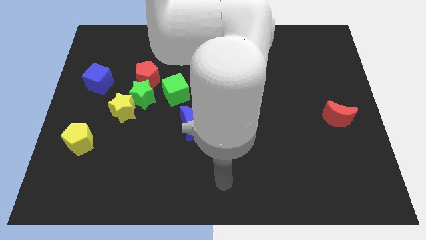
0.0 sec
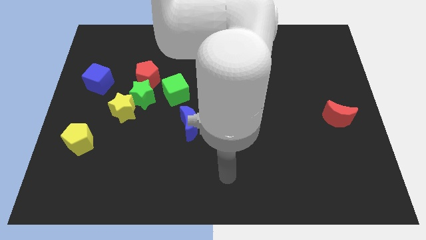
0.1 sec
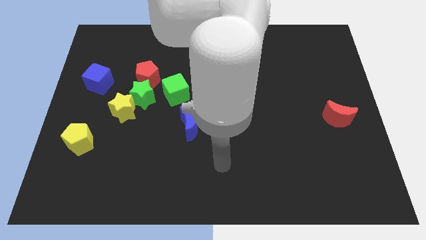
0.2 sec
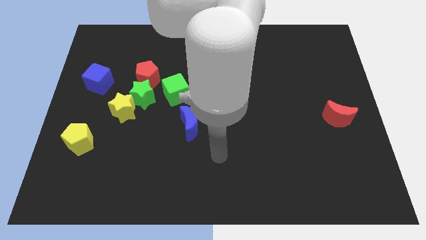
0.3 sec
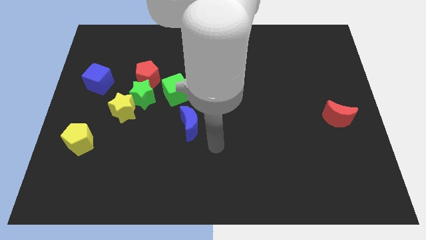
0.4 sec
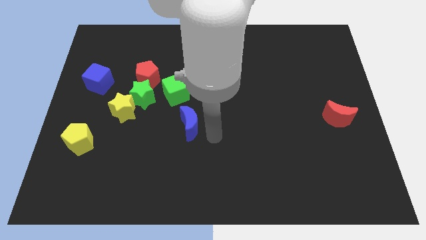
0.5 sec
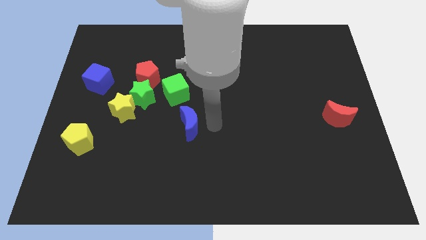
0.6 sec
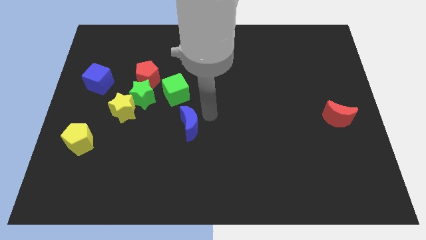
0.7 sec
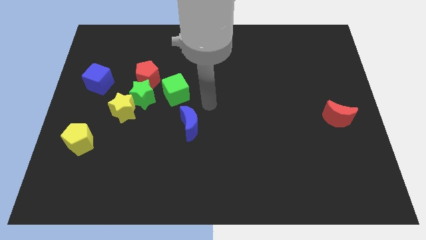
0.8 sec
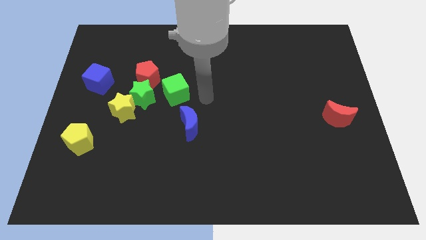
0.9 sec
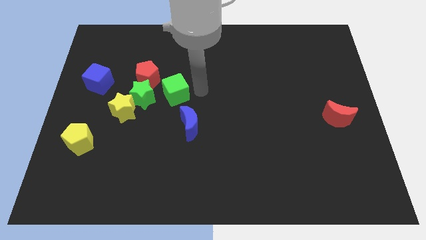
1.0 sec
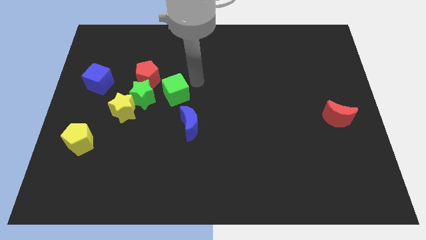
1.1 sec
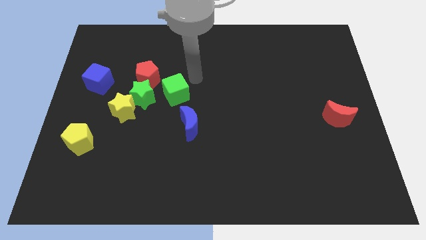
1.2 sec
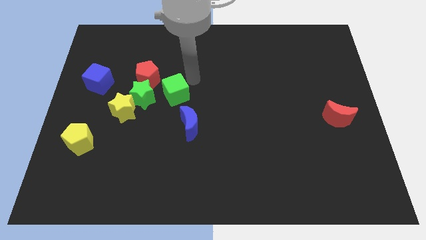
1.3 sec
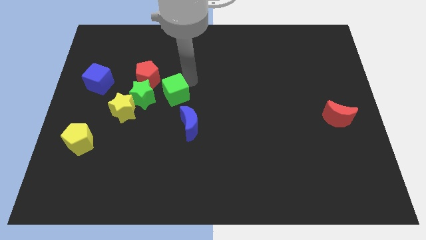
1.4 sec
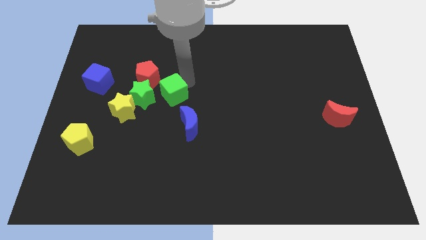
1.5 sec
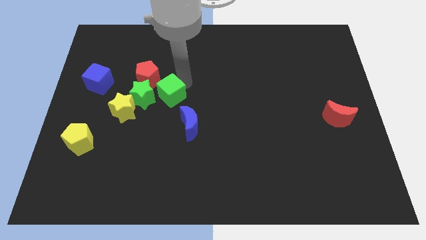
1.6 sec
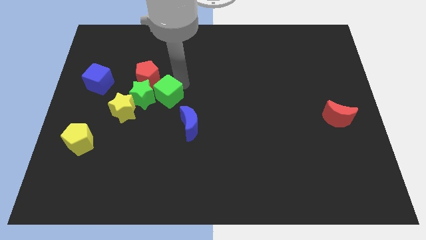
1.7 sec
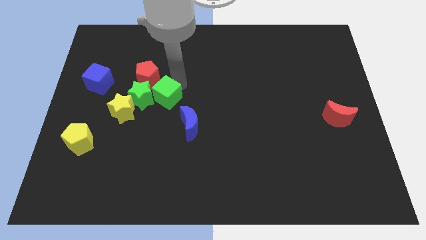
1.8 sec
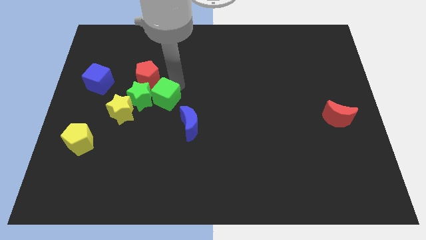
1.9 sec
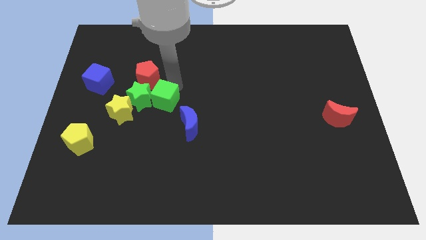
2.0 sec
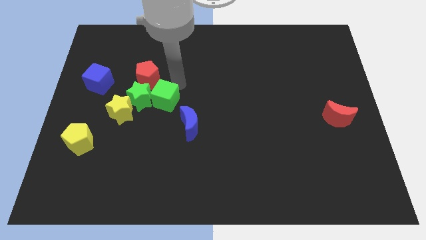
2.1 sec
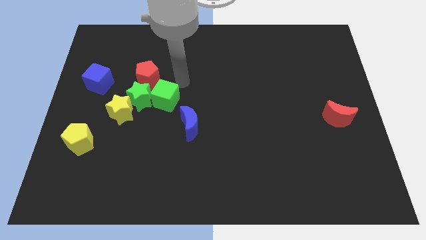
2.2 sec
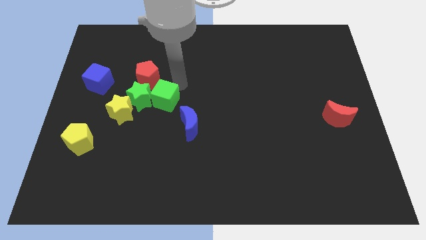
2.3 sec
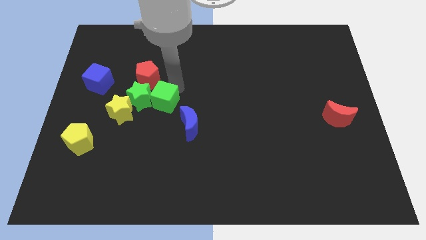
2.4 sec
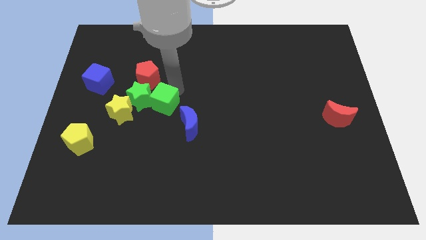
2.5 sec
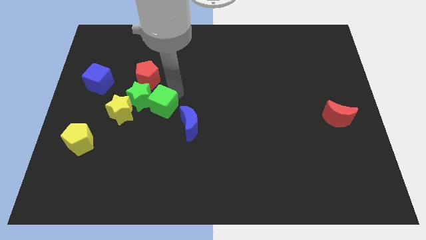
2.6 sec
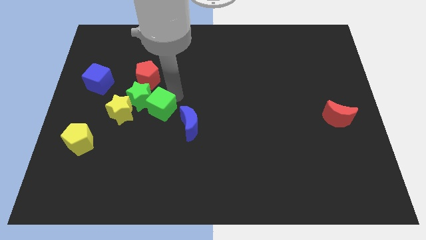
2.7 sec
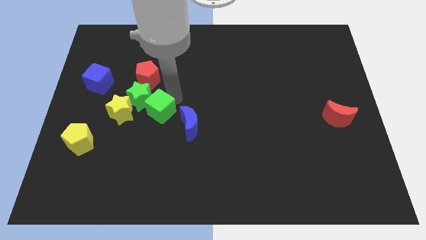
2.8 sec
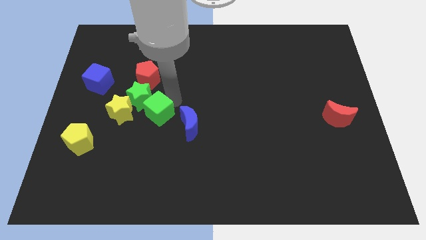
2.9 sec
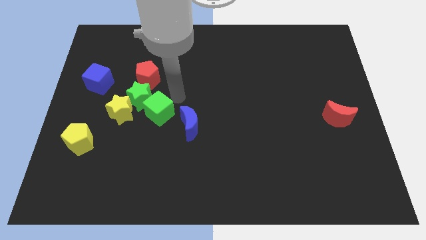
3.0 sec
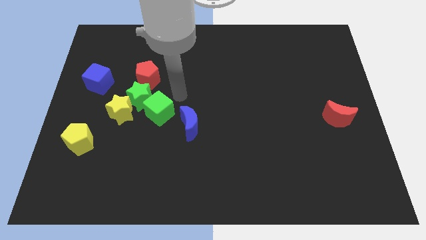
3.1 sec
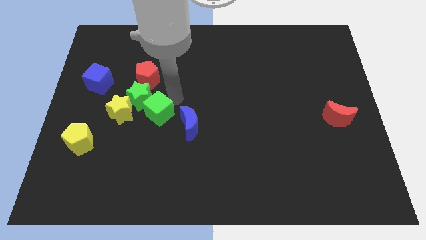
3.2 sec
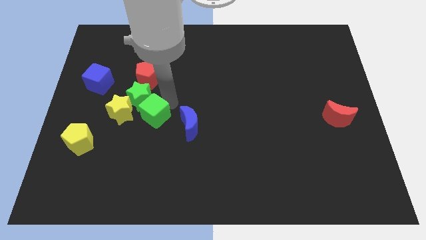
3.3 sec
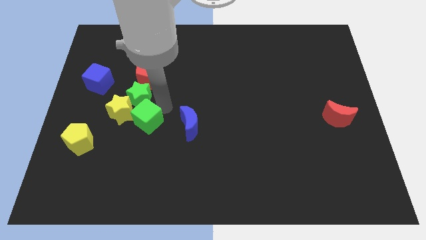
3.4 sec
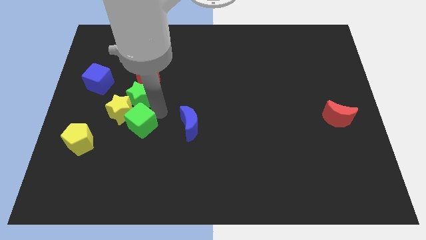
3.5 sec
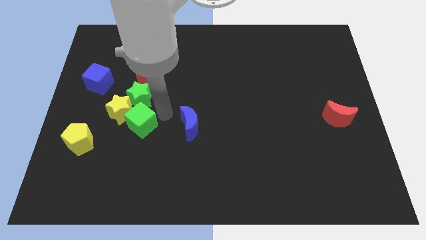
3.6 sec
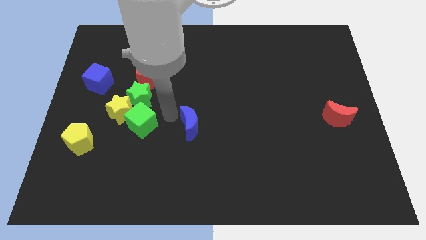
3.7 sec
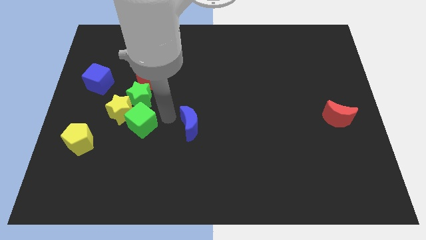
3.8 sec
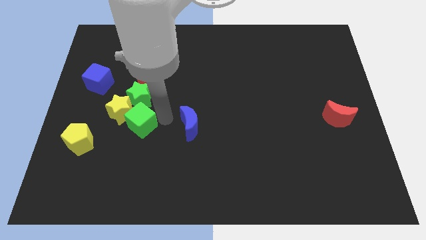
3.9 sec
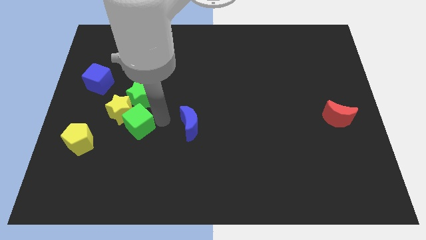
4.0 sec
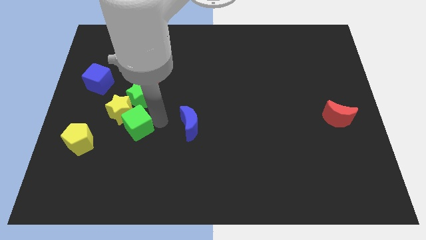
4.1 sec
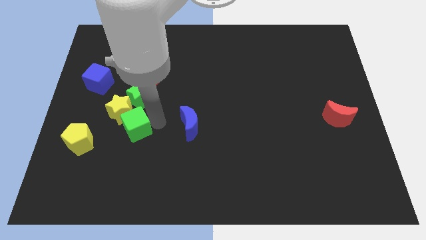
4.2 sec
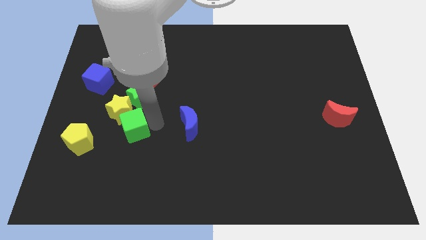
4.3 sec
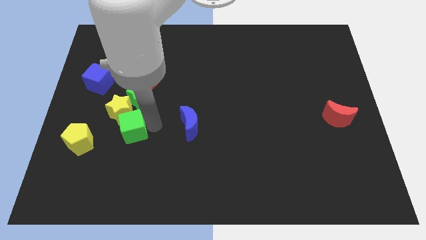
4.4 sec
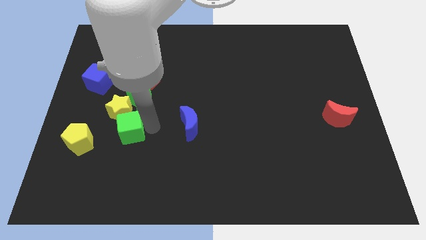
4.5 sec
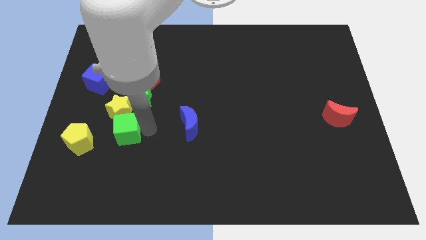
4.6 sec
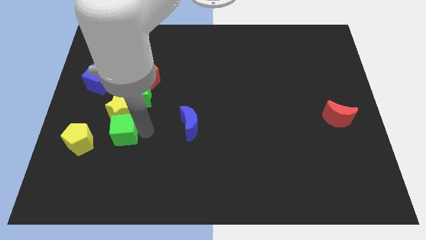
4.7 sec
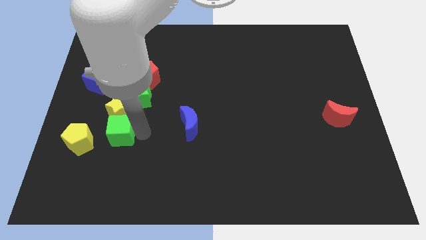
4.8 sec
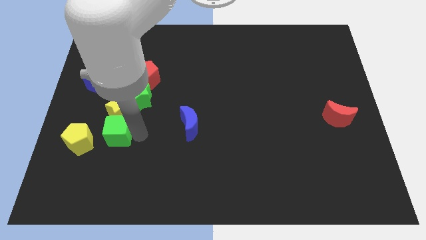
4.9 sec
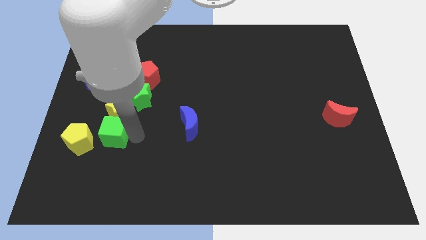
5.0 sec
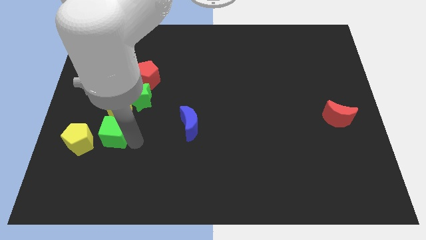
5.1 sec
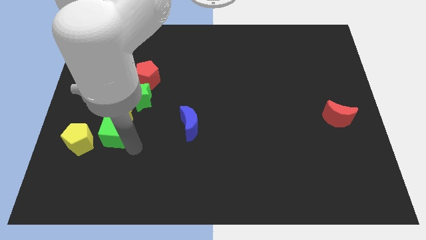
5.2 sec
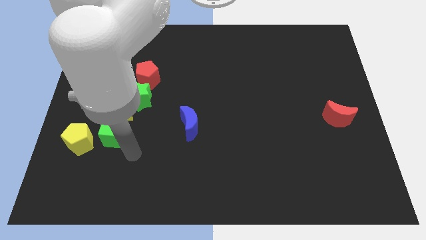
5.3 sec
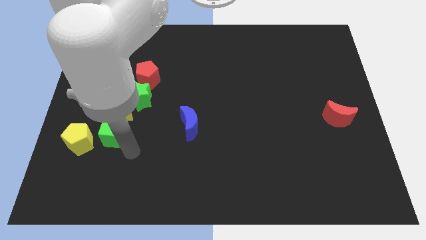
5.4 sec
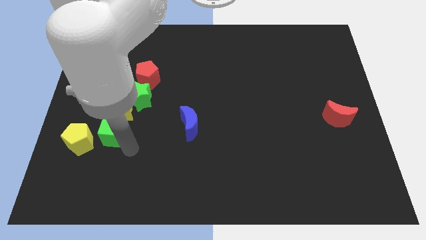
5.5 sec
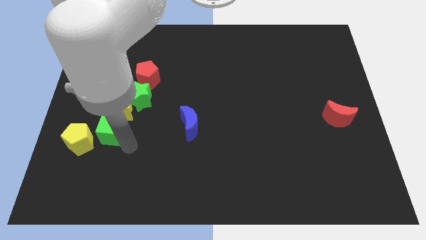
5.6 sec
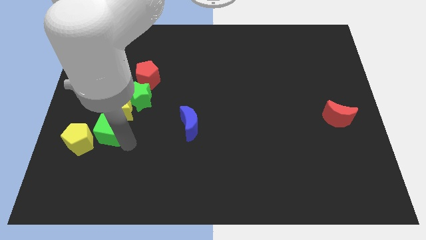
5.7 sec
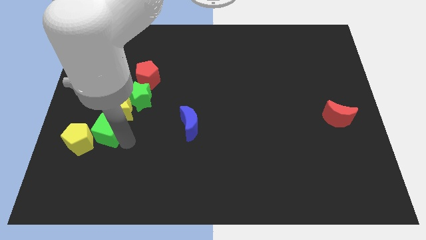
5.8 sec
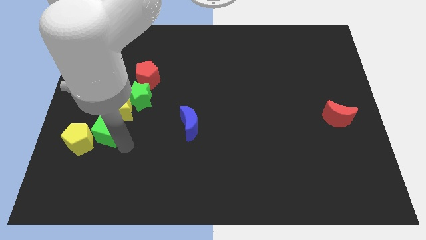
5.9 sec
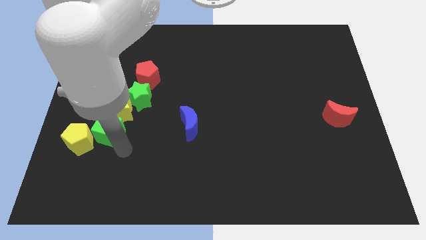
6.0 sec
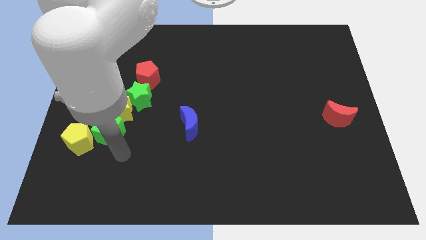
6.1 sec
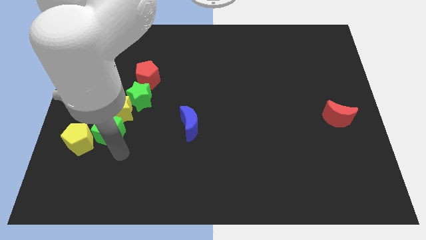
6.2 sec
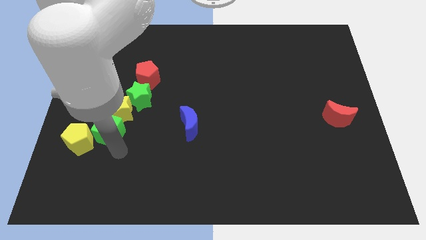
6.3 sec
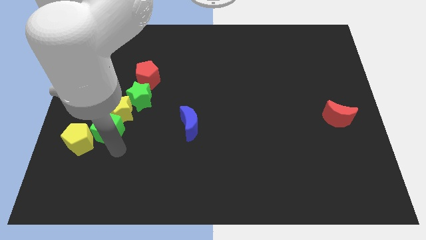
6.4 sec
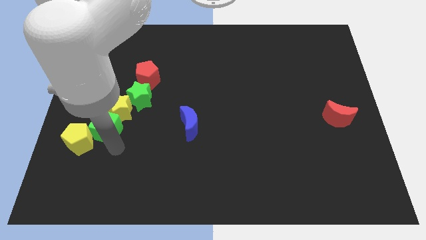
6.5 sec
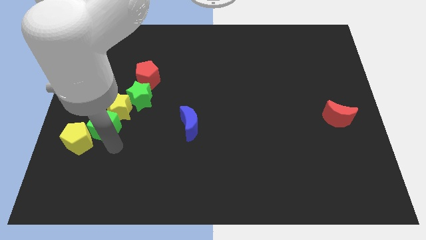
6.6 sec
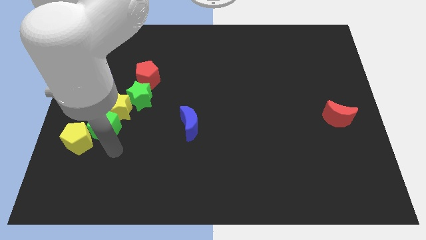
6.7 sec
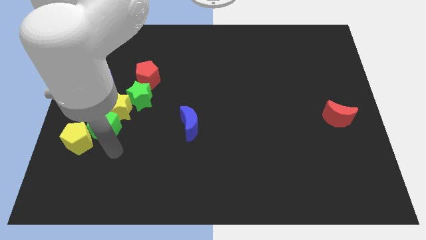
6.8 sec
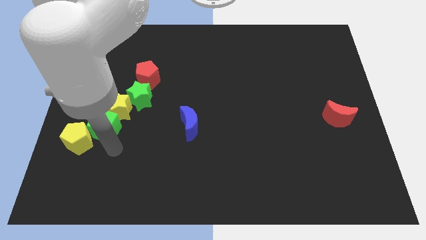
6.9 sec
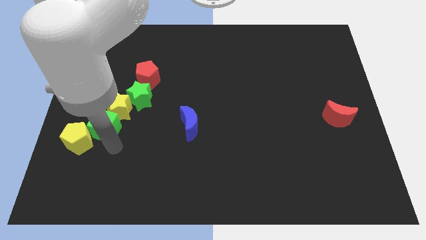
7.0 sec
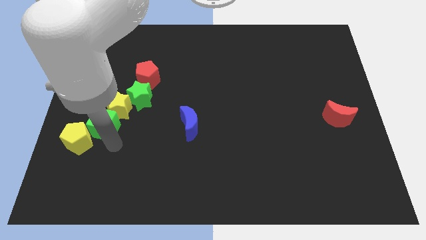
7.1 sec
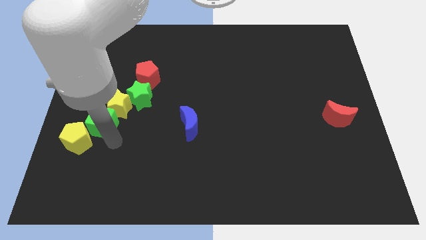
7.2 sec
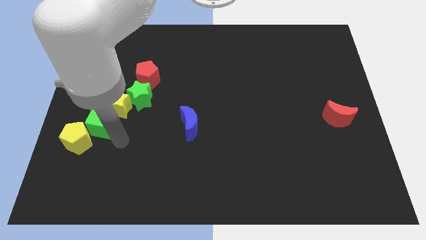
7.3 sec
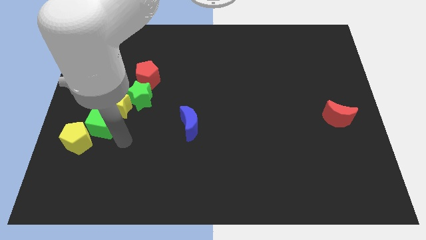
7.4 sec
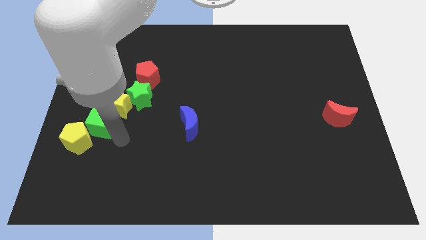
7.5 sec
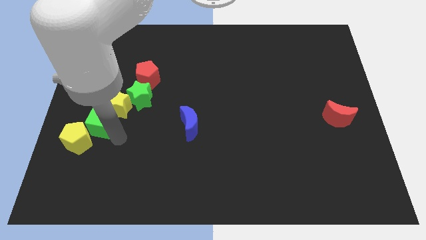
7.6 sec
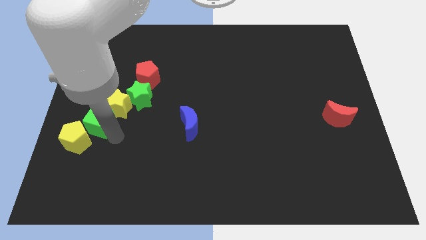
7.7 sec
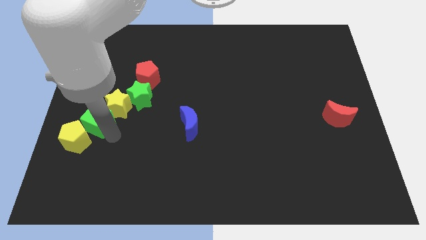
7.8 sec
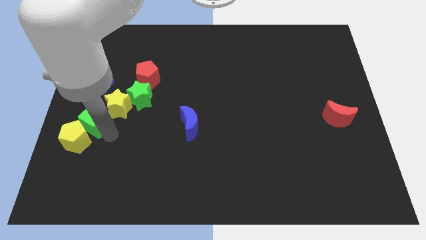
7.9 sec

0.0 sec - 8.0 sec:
move the green cube to the left side of the board
